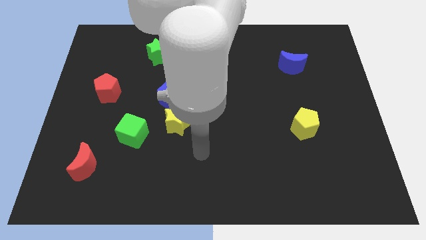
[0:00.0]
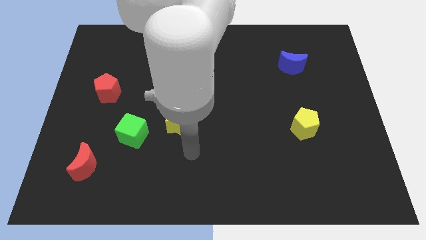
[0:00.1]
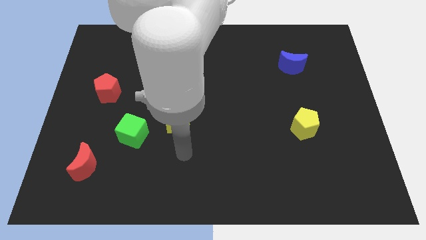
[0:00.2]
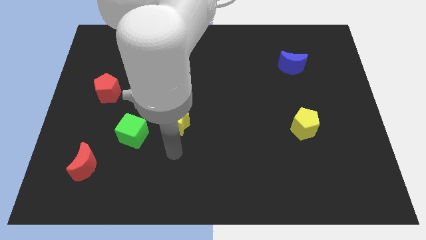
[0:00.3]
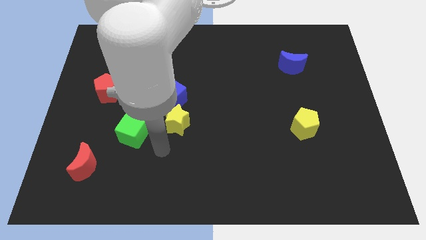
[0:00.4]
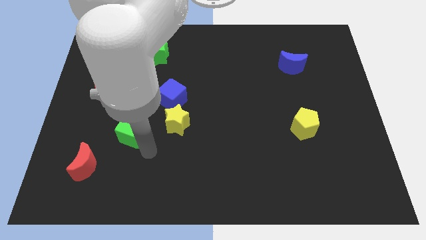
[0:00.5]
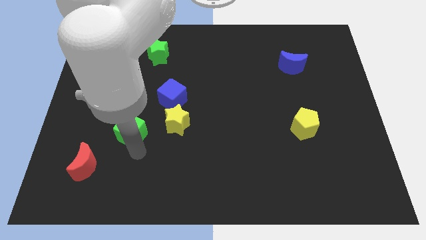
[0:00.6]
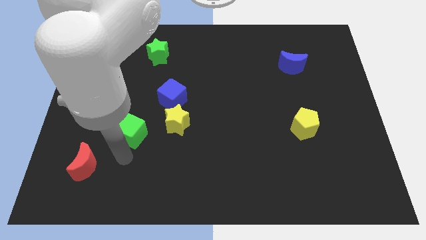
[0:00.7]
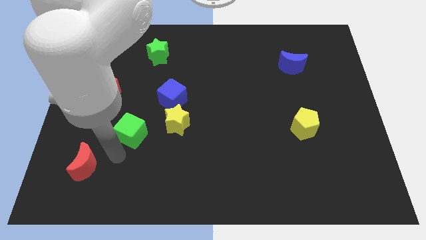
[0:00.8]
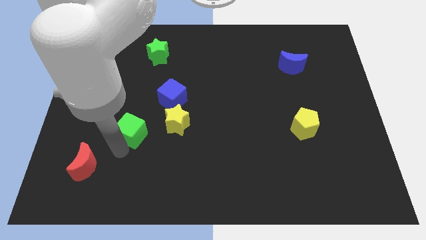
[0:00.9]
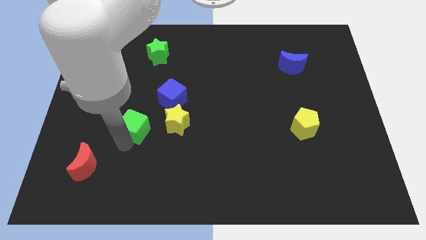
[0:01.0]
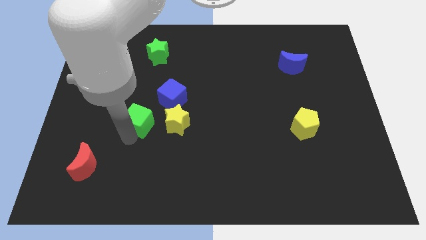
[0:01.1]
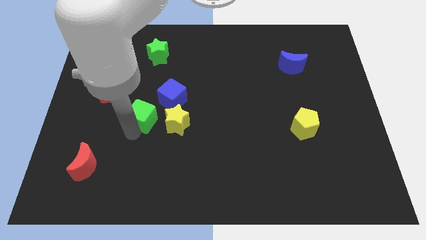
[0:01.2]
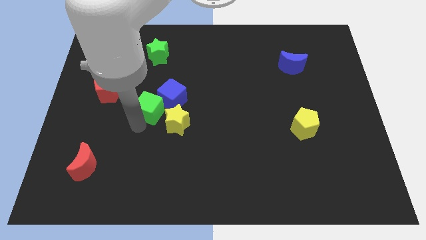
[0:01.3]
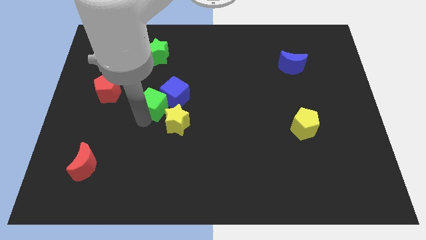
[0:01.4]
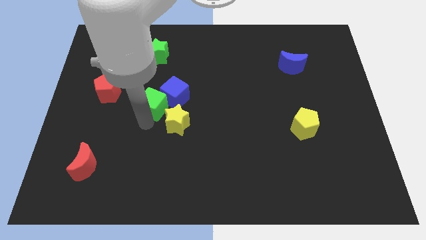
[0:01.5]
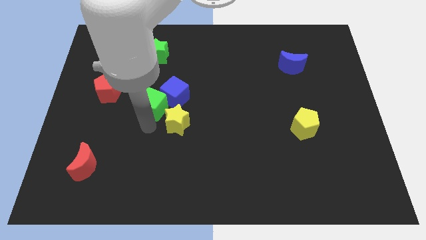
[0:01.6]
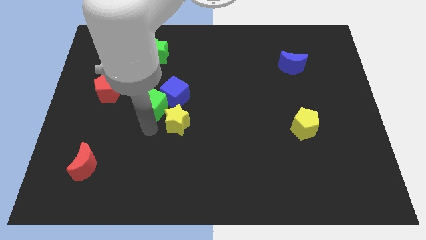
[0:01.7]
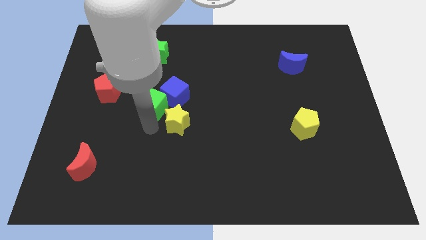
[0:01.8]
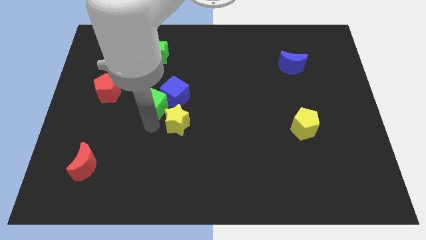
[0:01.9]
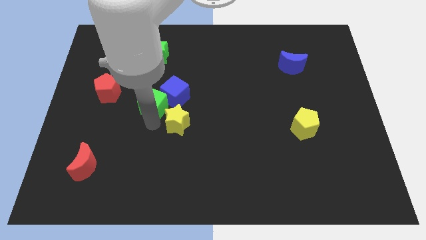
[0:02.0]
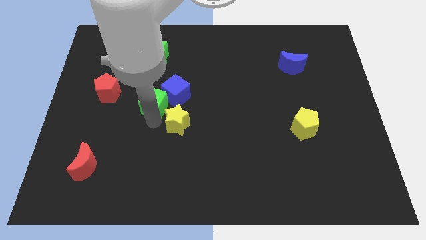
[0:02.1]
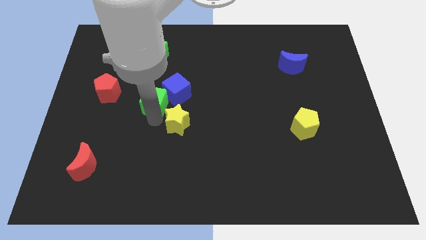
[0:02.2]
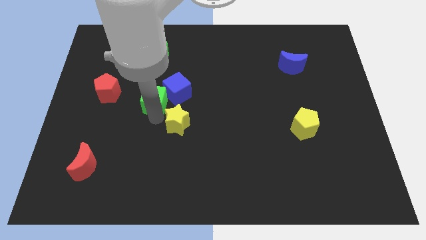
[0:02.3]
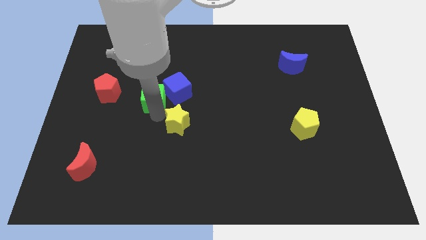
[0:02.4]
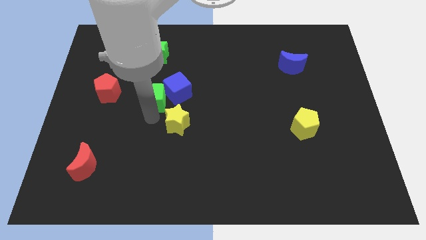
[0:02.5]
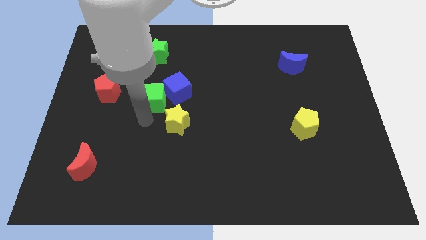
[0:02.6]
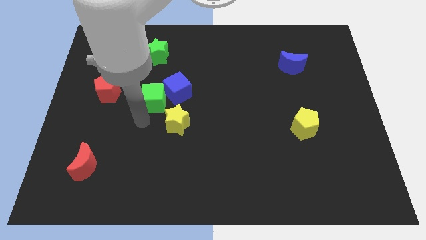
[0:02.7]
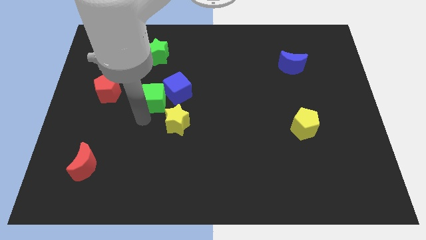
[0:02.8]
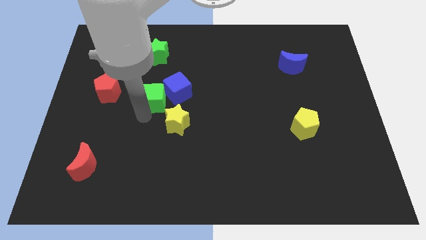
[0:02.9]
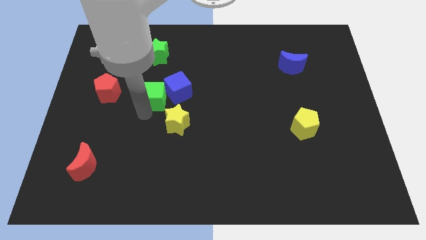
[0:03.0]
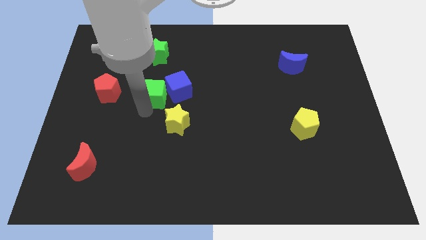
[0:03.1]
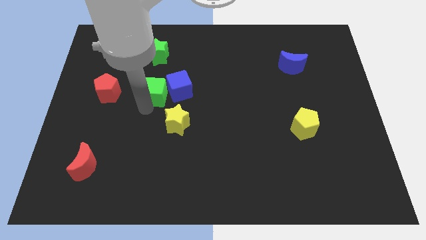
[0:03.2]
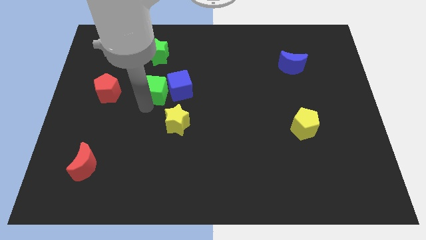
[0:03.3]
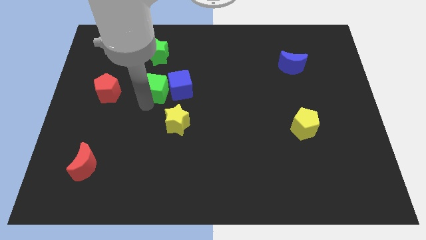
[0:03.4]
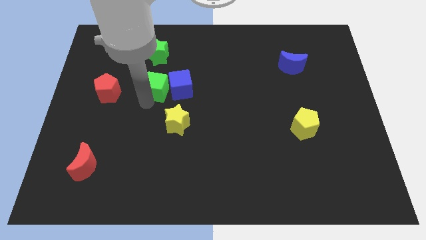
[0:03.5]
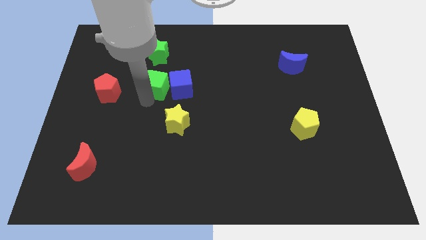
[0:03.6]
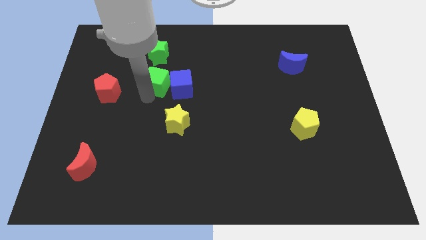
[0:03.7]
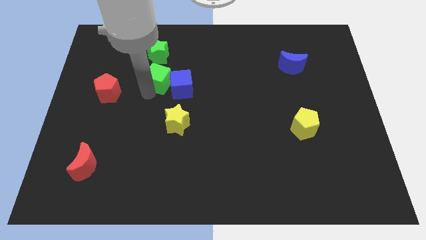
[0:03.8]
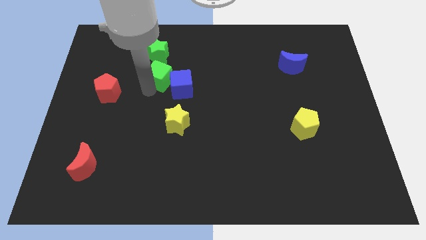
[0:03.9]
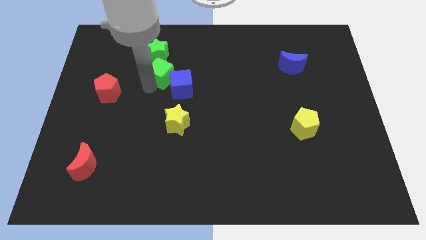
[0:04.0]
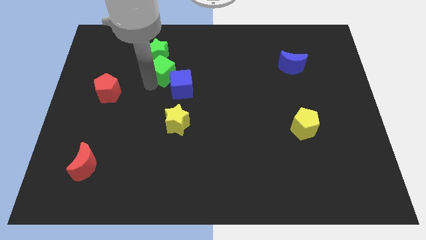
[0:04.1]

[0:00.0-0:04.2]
move the green cube above the blue cube

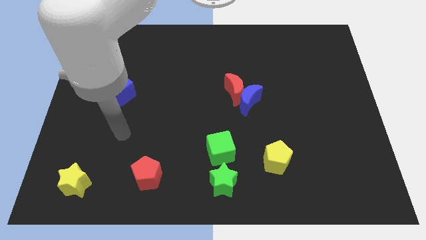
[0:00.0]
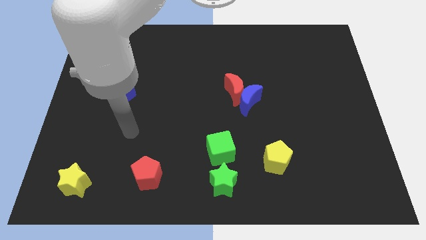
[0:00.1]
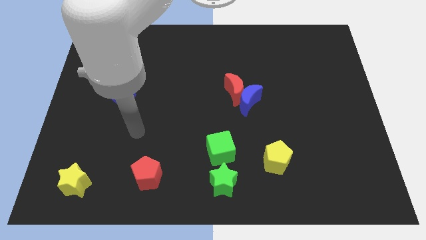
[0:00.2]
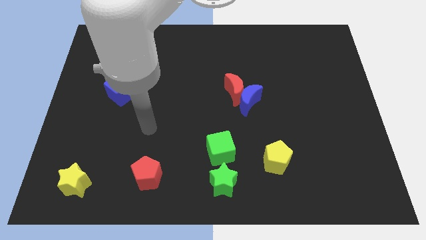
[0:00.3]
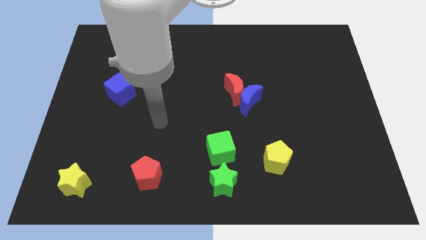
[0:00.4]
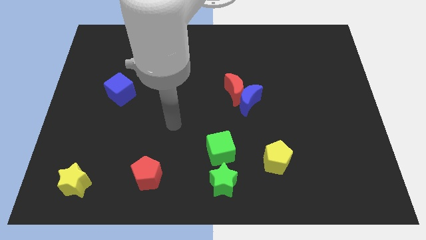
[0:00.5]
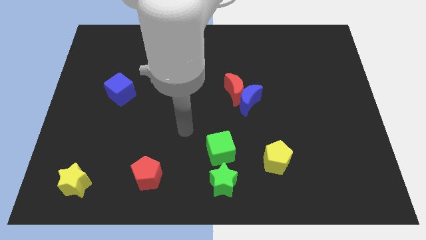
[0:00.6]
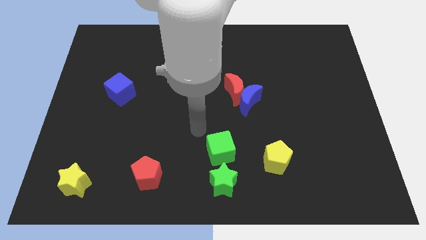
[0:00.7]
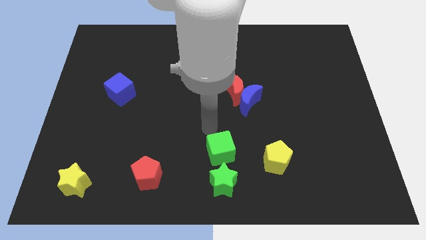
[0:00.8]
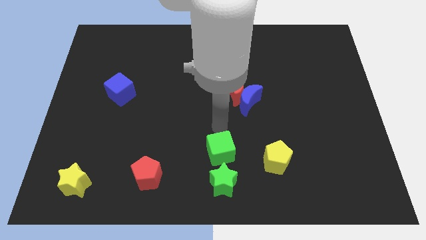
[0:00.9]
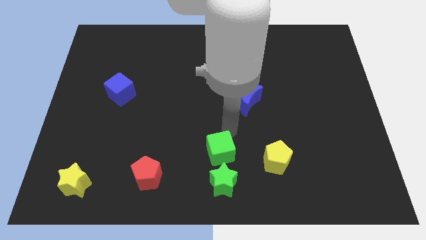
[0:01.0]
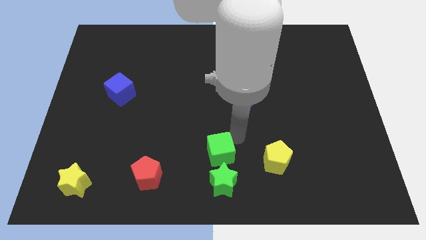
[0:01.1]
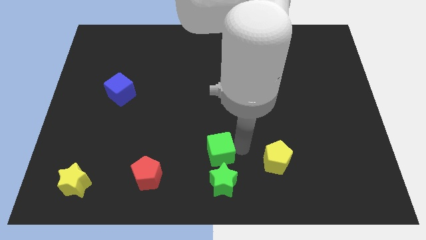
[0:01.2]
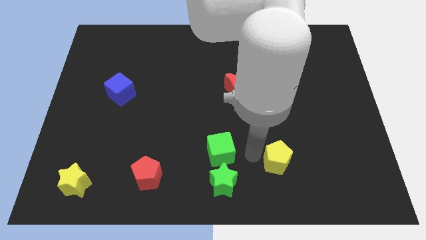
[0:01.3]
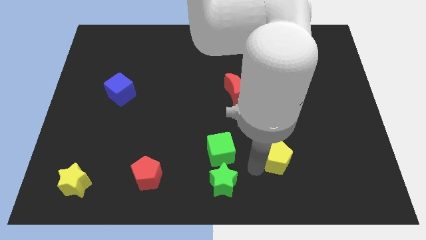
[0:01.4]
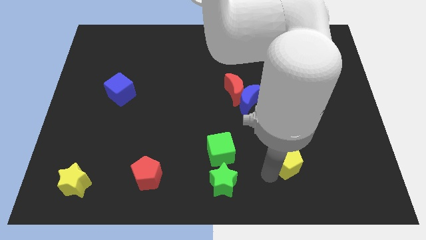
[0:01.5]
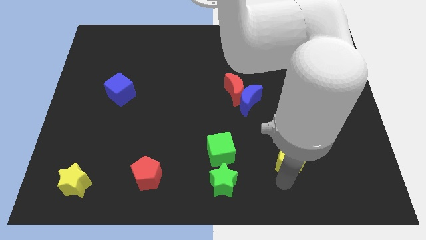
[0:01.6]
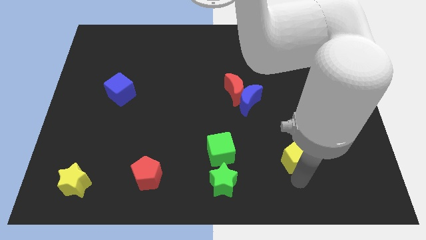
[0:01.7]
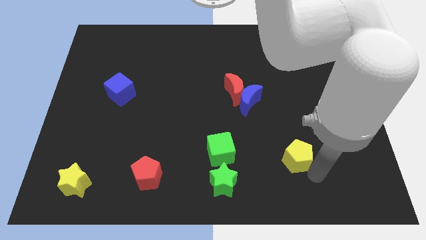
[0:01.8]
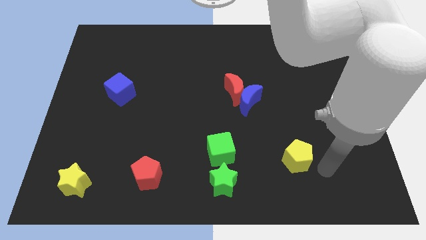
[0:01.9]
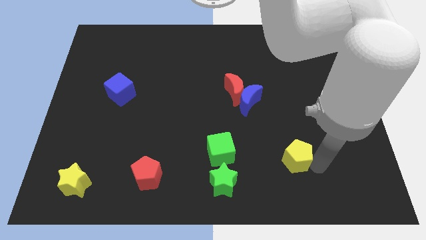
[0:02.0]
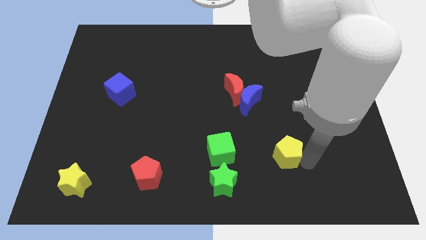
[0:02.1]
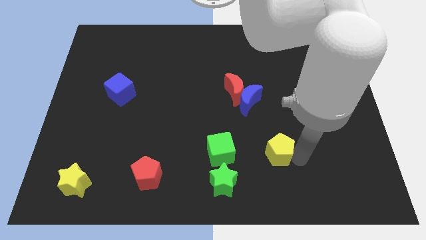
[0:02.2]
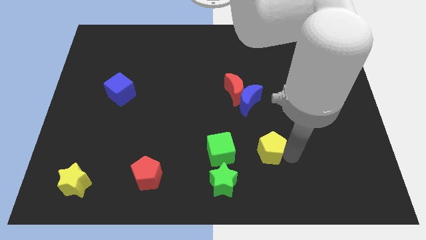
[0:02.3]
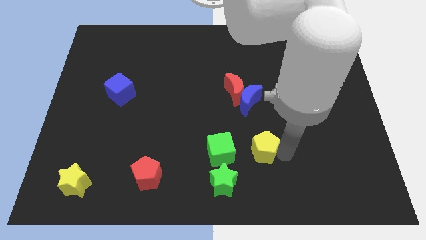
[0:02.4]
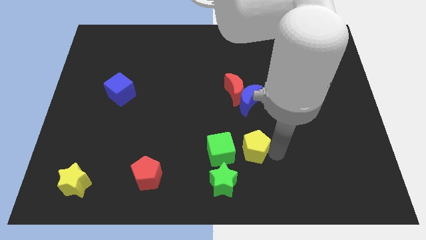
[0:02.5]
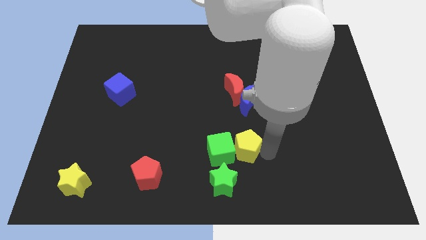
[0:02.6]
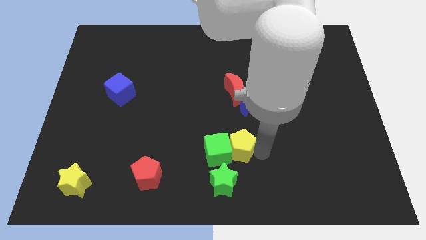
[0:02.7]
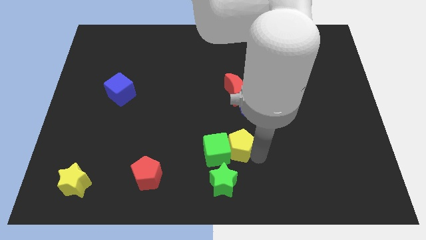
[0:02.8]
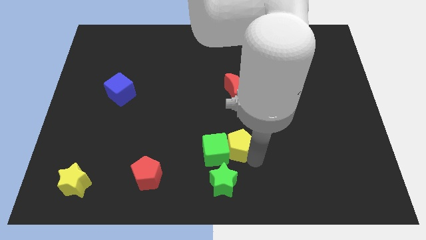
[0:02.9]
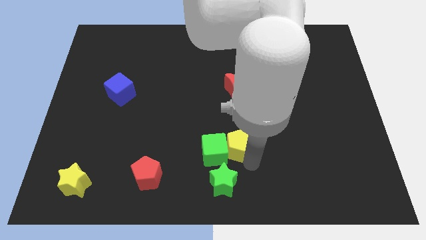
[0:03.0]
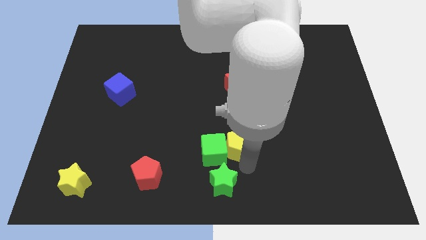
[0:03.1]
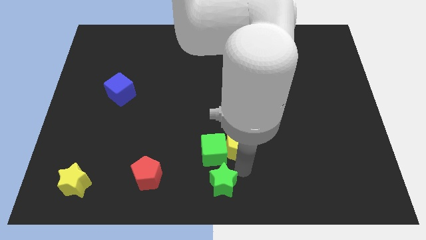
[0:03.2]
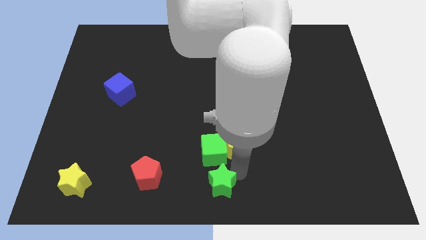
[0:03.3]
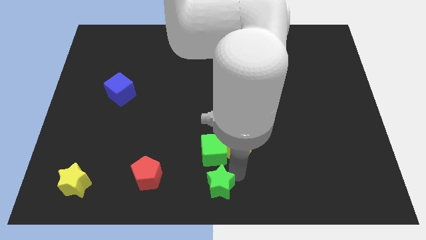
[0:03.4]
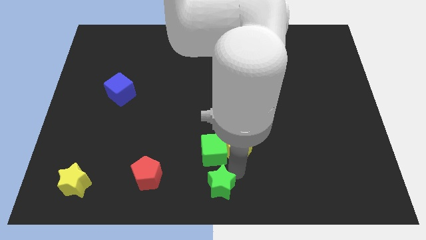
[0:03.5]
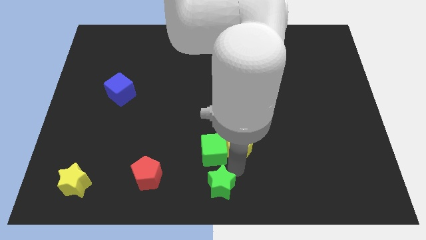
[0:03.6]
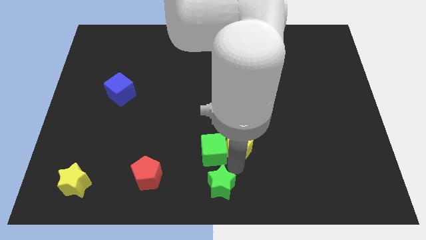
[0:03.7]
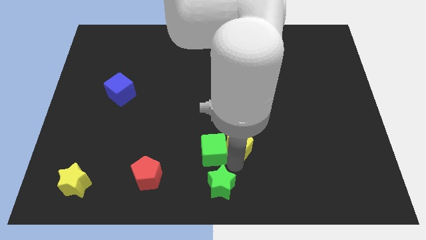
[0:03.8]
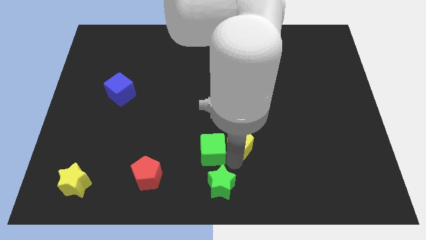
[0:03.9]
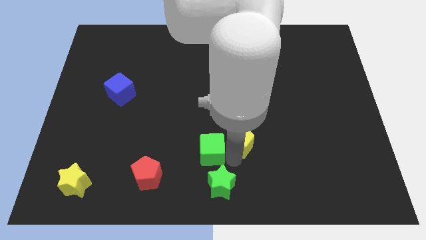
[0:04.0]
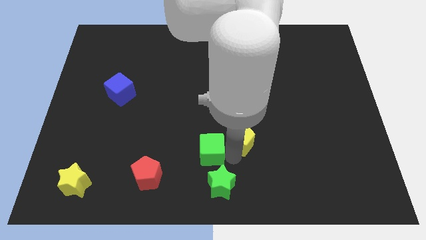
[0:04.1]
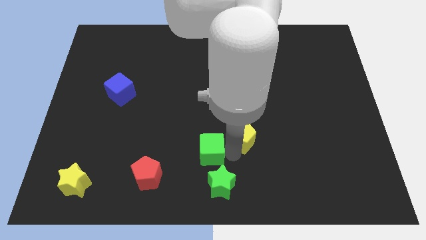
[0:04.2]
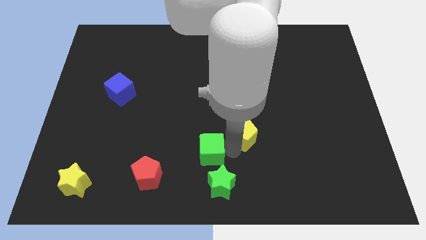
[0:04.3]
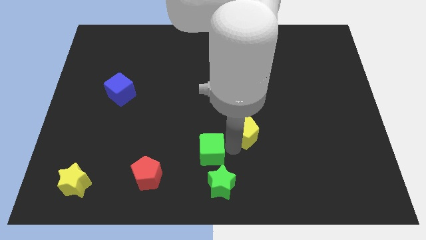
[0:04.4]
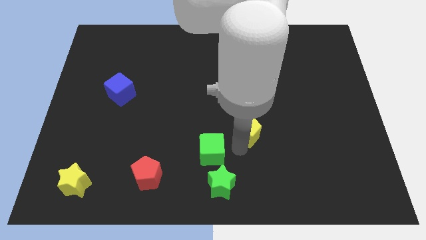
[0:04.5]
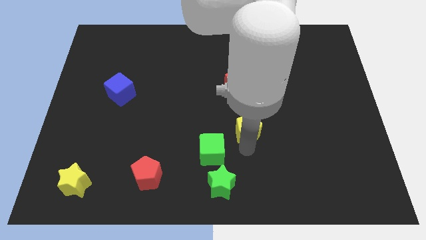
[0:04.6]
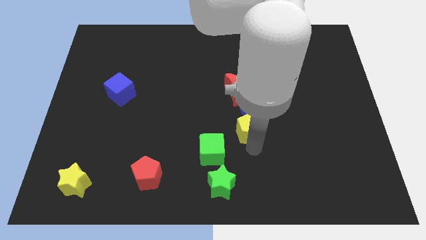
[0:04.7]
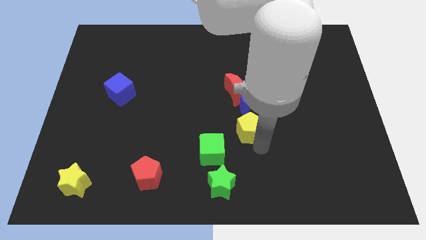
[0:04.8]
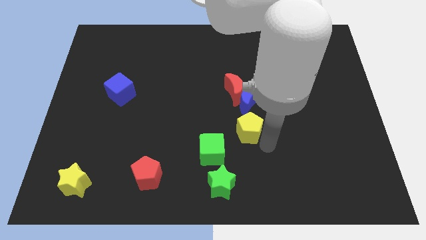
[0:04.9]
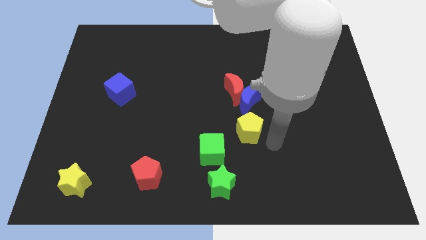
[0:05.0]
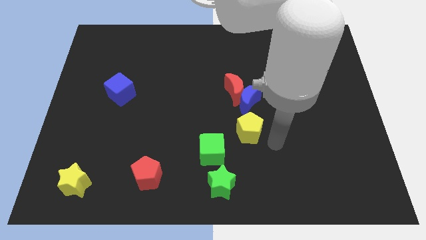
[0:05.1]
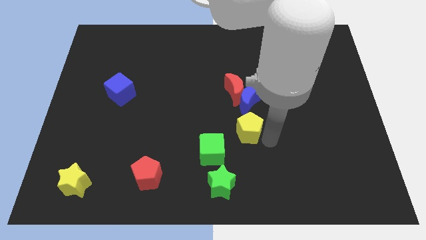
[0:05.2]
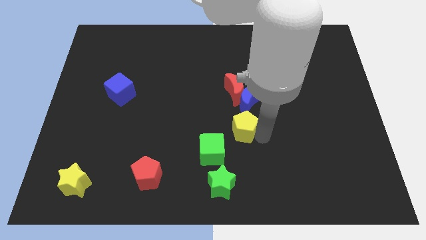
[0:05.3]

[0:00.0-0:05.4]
put the yellow pentagon to the bottom left side of the blue moon
